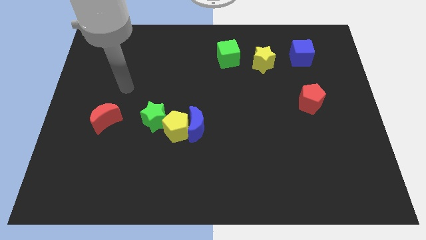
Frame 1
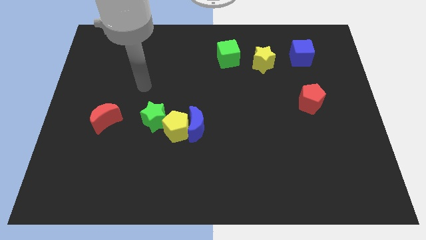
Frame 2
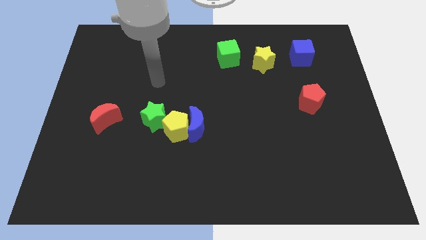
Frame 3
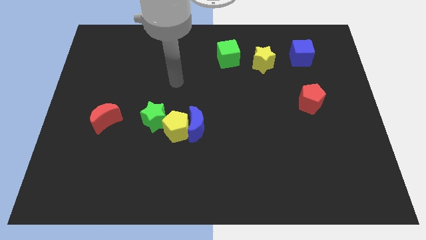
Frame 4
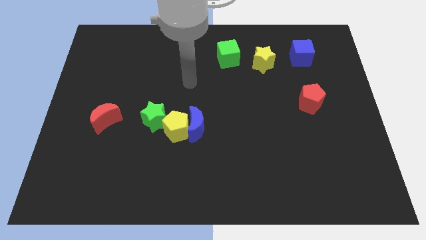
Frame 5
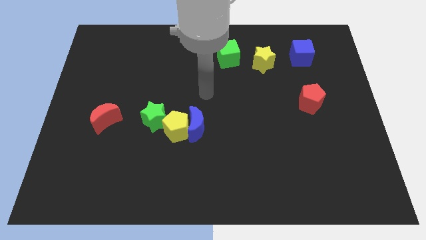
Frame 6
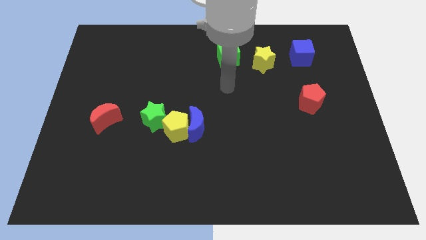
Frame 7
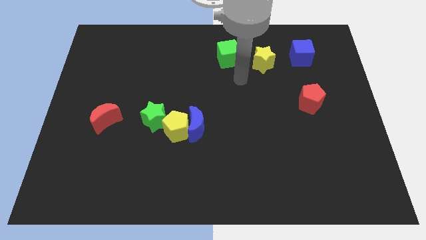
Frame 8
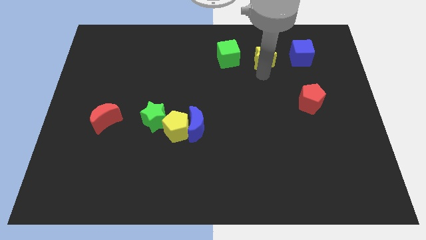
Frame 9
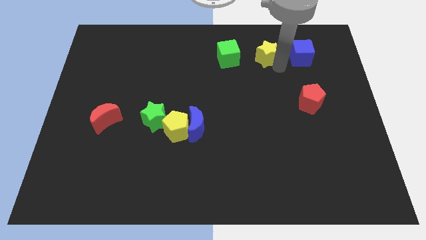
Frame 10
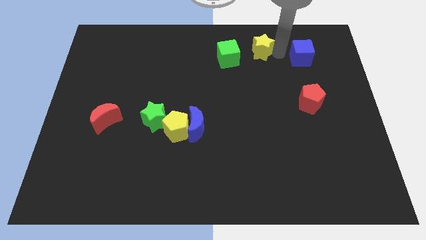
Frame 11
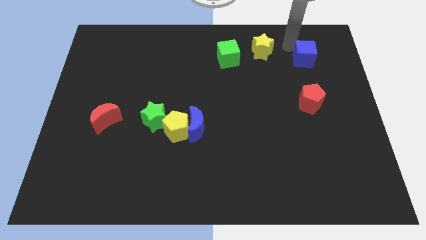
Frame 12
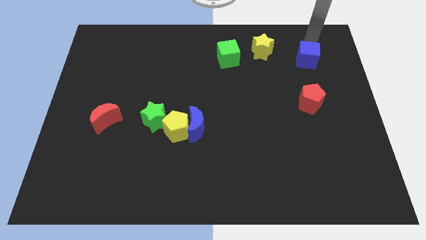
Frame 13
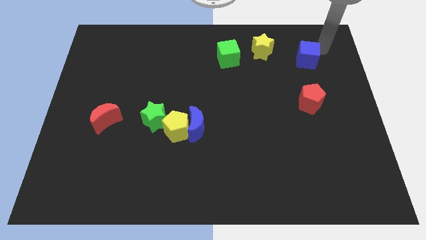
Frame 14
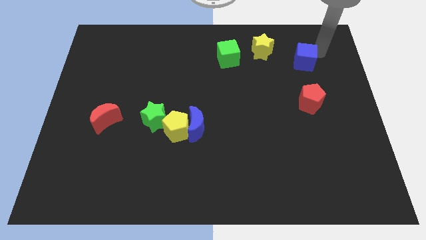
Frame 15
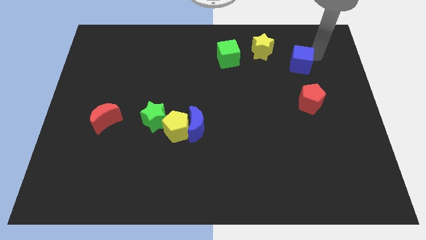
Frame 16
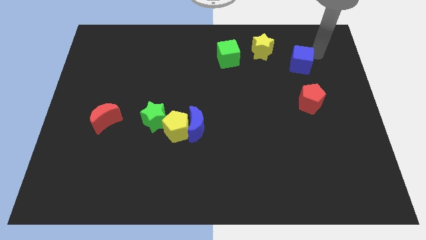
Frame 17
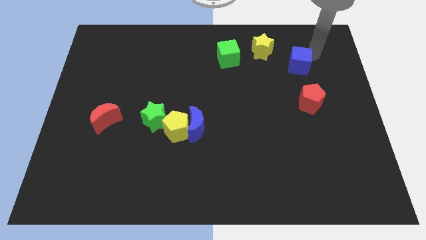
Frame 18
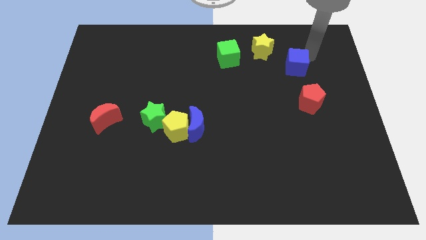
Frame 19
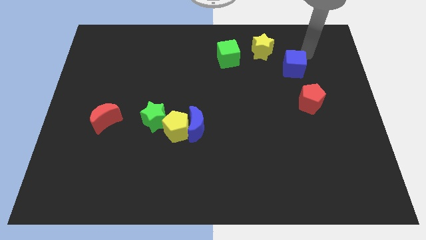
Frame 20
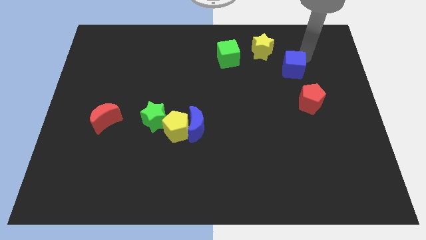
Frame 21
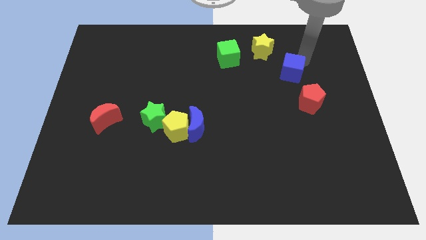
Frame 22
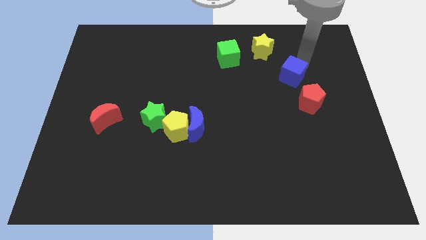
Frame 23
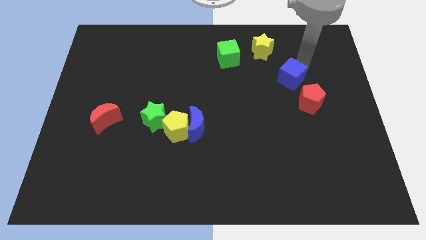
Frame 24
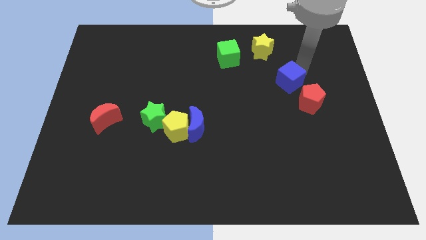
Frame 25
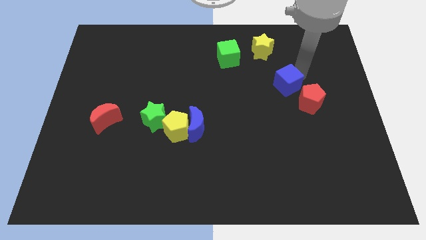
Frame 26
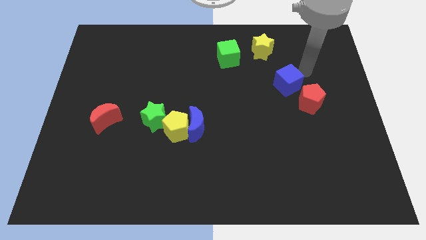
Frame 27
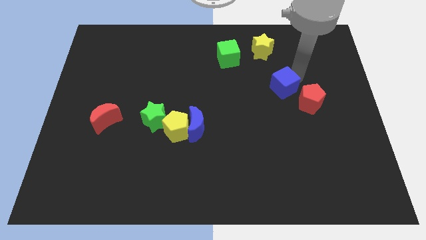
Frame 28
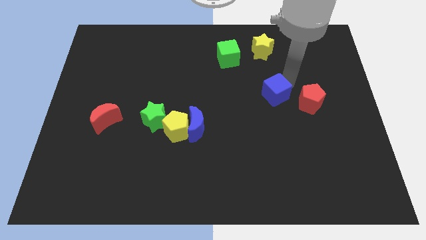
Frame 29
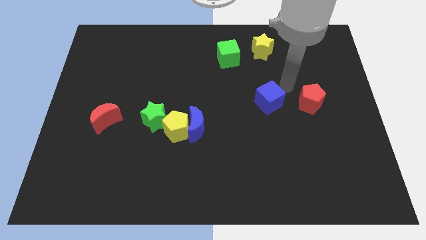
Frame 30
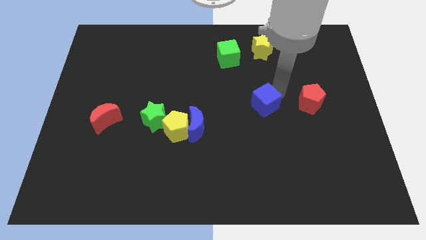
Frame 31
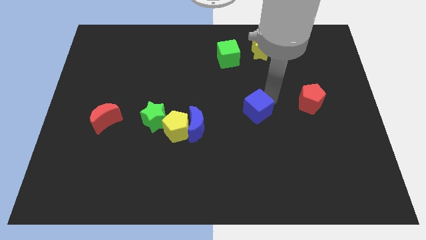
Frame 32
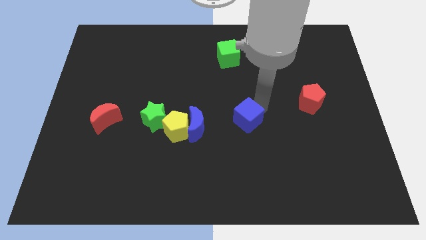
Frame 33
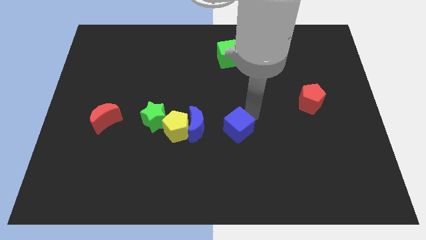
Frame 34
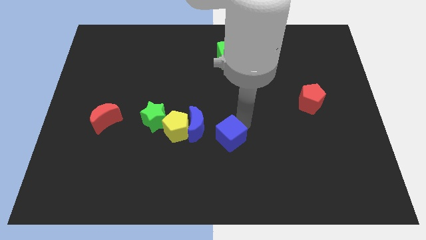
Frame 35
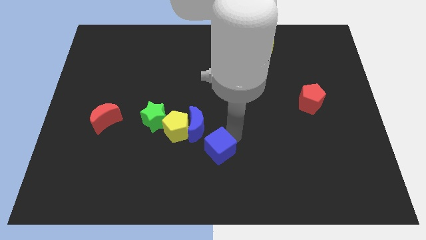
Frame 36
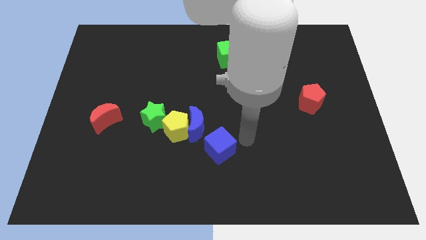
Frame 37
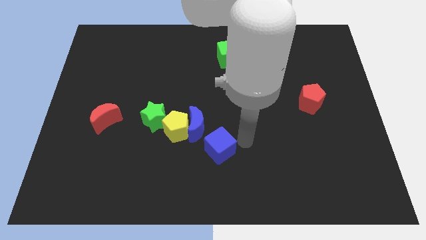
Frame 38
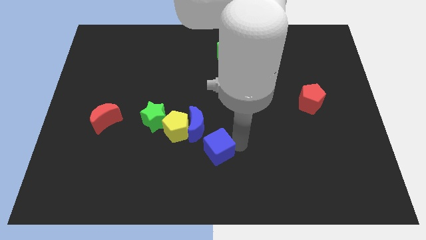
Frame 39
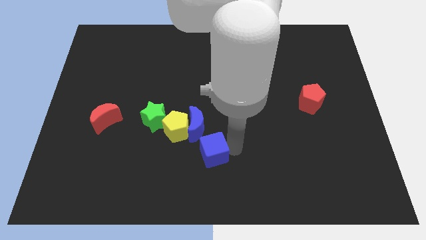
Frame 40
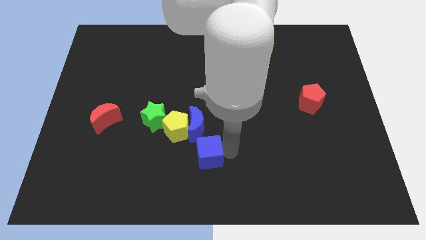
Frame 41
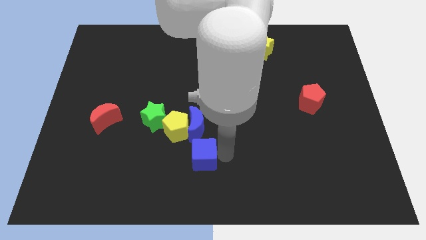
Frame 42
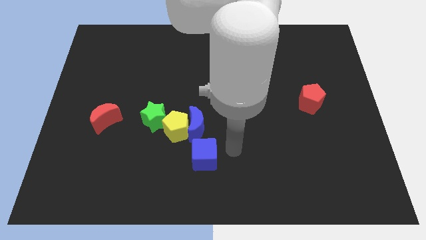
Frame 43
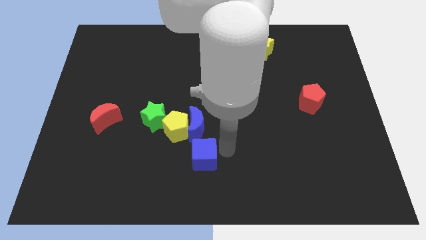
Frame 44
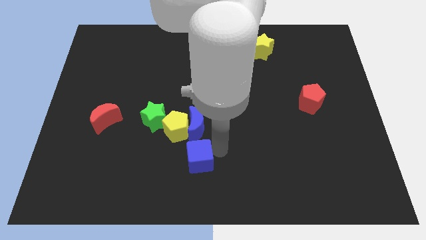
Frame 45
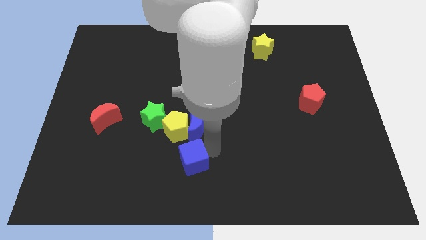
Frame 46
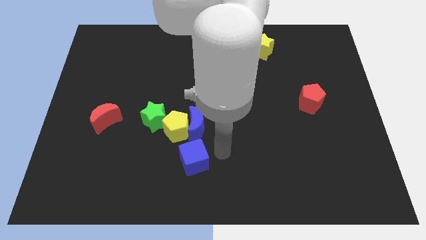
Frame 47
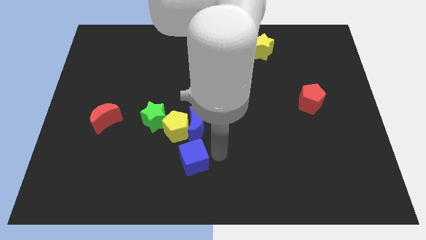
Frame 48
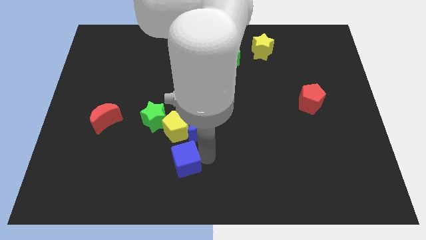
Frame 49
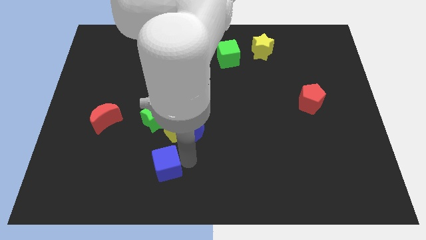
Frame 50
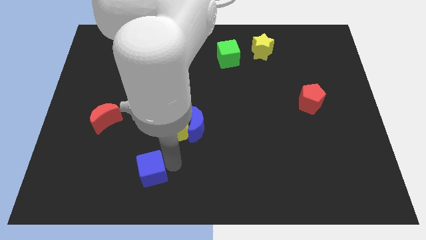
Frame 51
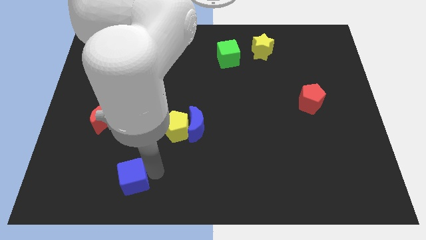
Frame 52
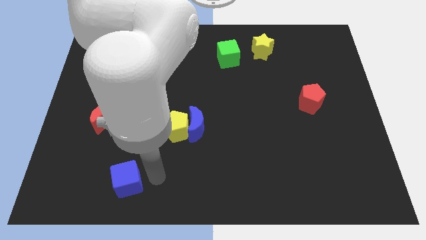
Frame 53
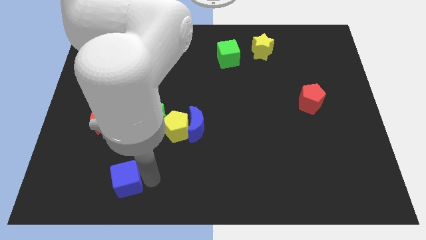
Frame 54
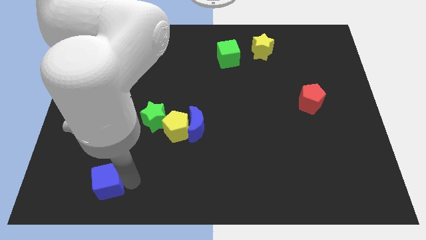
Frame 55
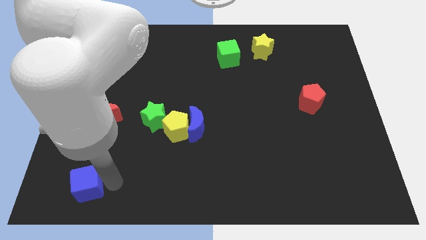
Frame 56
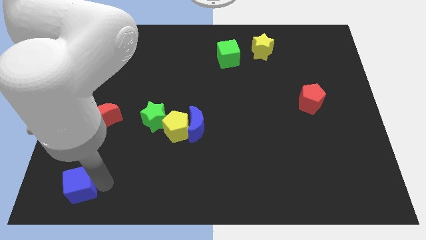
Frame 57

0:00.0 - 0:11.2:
push the blue cube to the bottom left corner

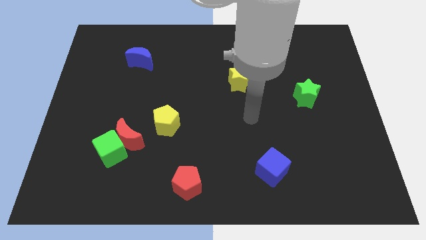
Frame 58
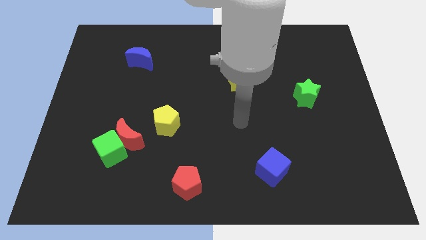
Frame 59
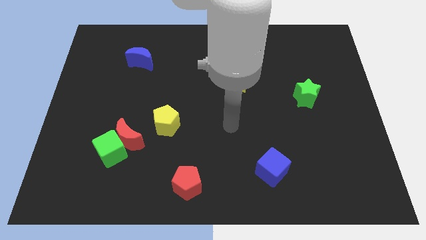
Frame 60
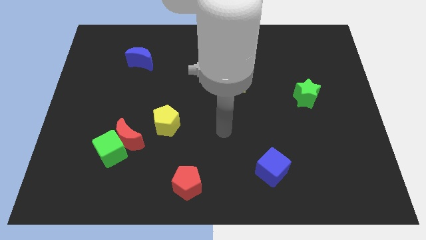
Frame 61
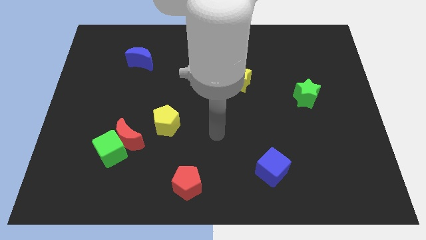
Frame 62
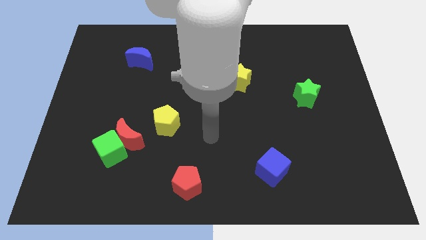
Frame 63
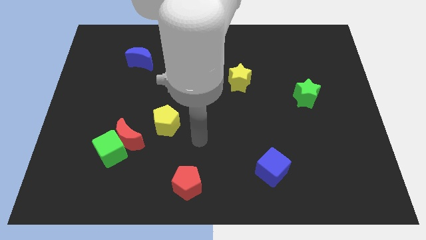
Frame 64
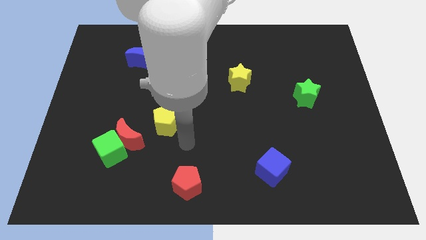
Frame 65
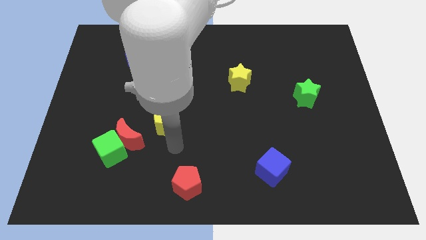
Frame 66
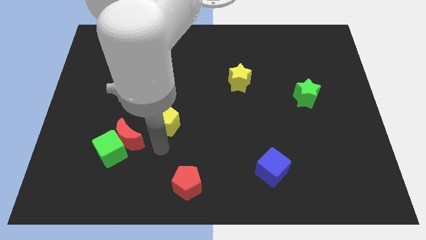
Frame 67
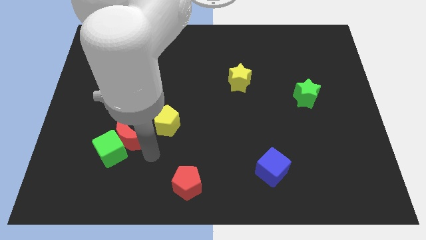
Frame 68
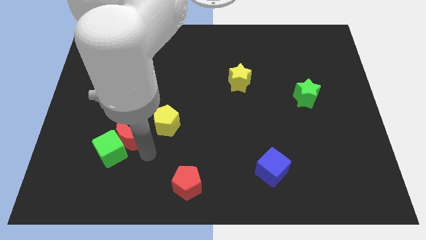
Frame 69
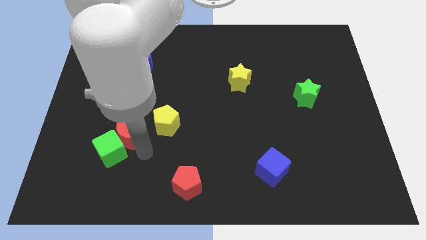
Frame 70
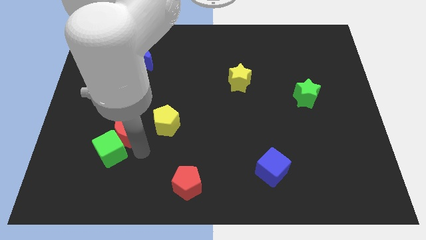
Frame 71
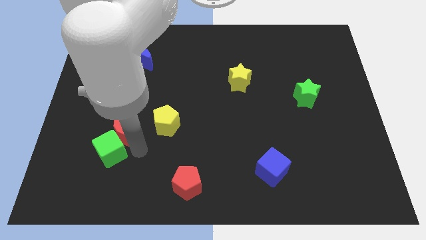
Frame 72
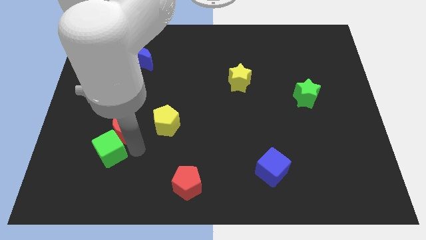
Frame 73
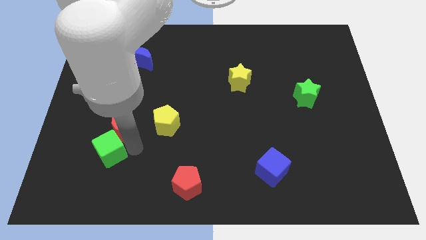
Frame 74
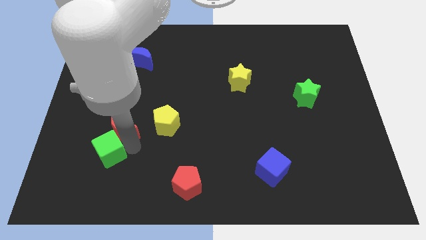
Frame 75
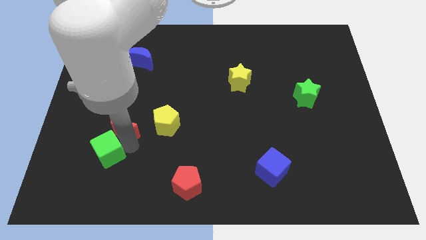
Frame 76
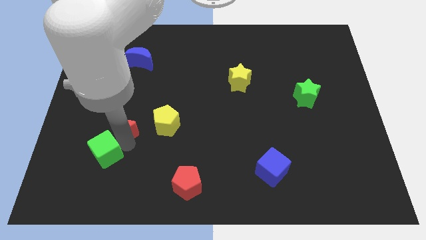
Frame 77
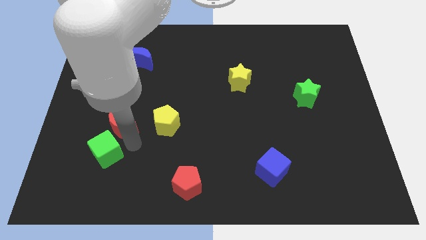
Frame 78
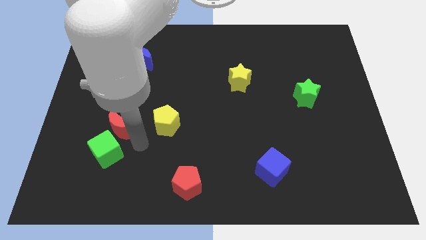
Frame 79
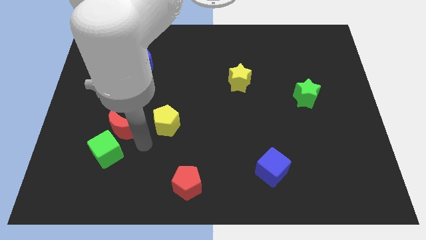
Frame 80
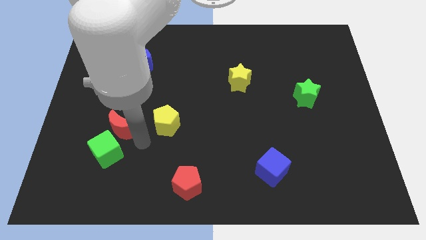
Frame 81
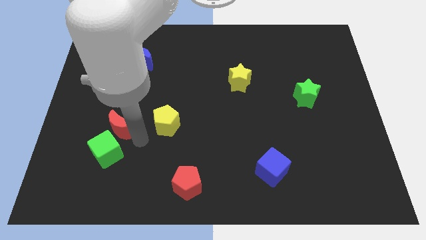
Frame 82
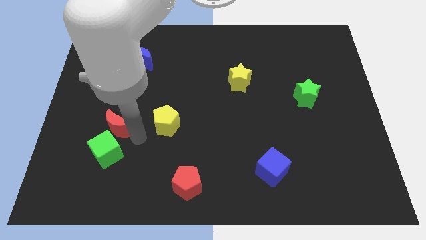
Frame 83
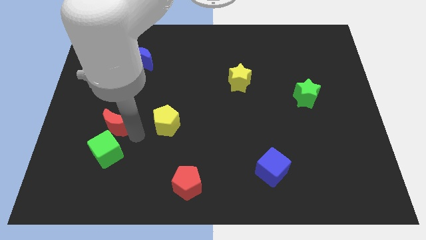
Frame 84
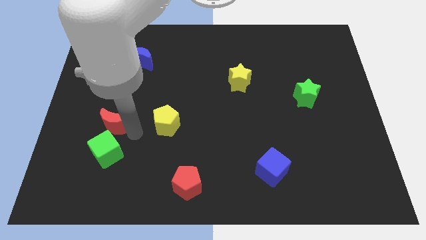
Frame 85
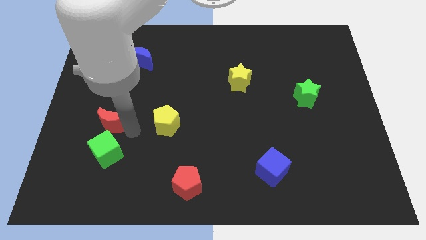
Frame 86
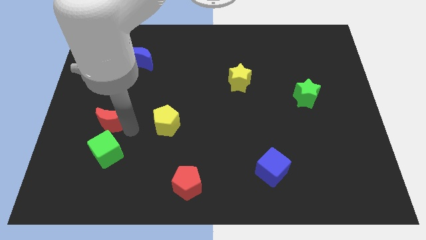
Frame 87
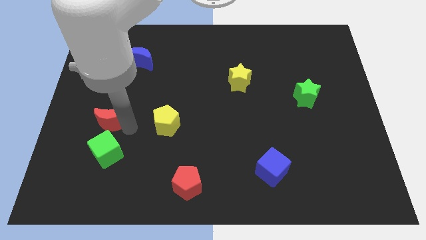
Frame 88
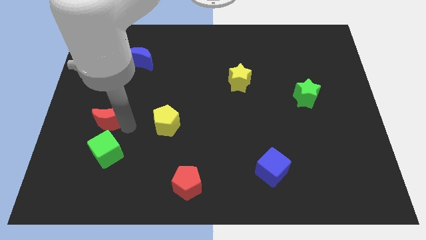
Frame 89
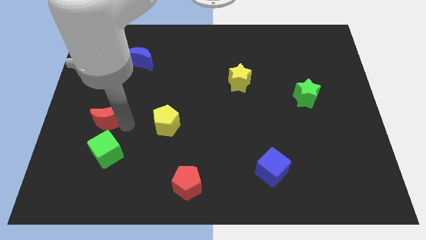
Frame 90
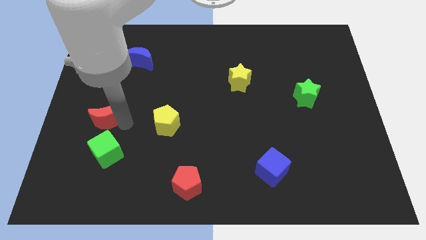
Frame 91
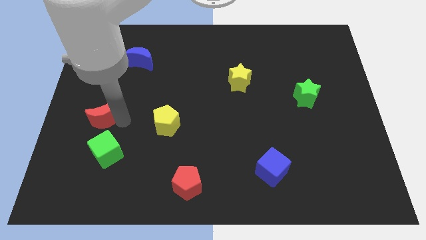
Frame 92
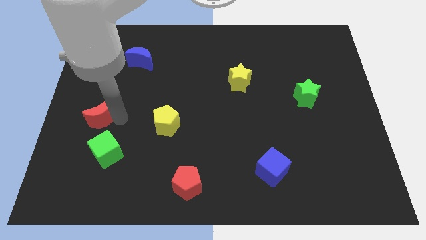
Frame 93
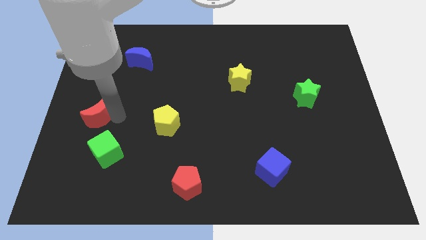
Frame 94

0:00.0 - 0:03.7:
put the red moon to the left side
